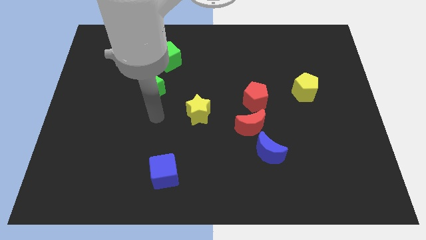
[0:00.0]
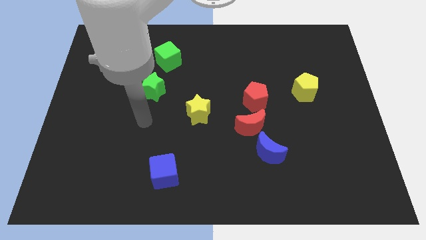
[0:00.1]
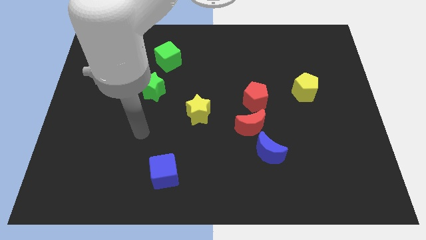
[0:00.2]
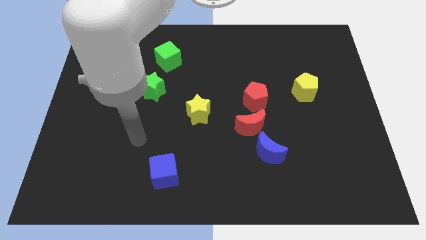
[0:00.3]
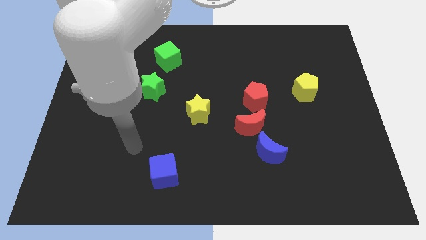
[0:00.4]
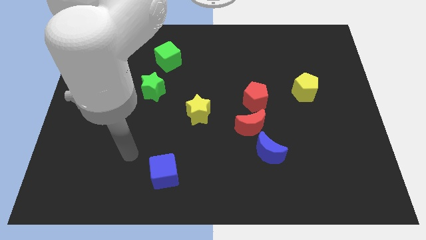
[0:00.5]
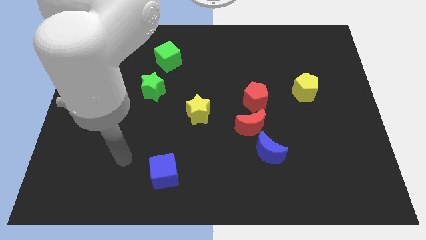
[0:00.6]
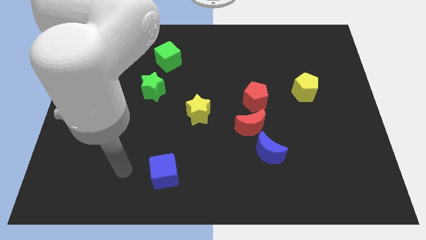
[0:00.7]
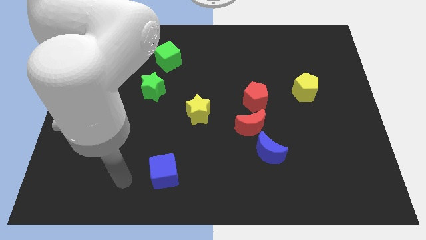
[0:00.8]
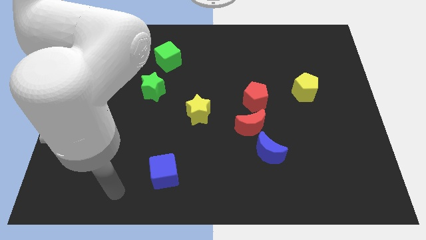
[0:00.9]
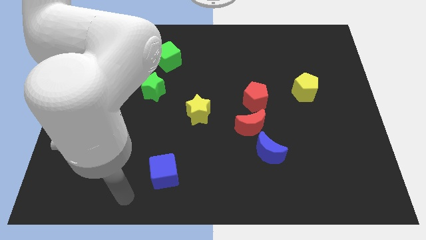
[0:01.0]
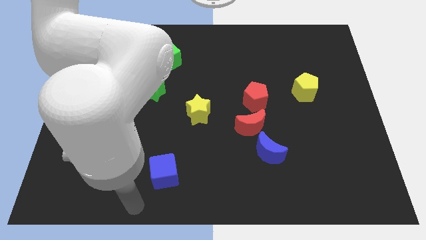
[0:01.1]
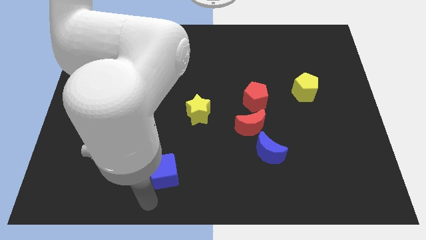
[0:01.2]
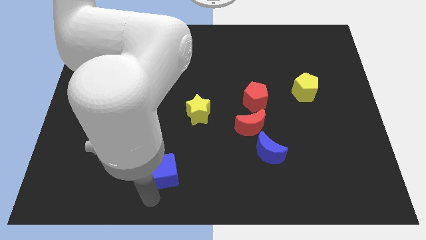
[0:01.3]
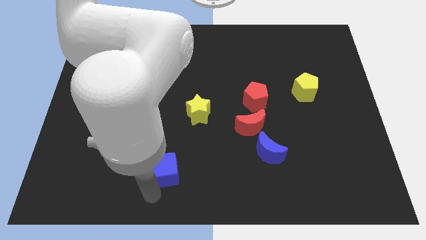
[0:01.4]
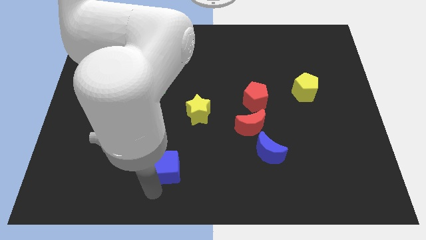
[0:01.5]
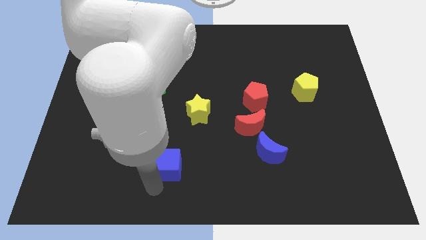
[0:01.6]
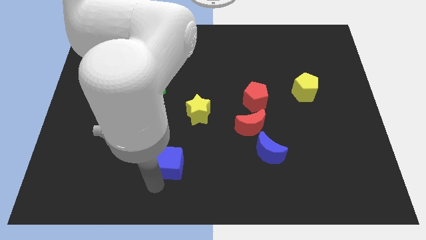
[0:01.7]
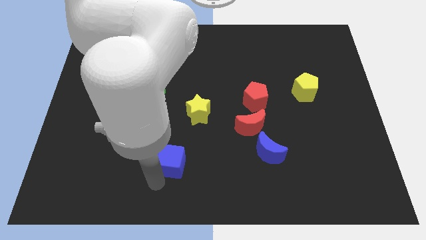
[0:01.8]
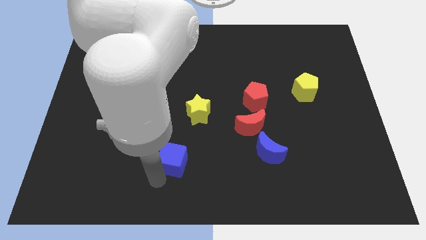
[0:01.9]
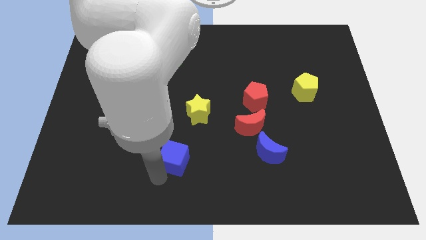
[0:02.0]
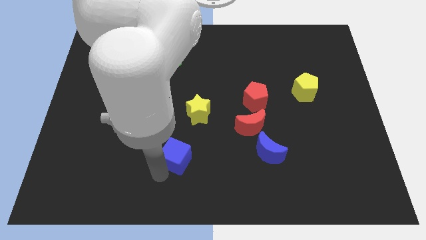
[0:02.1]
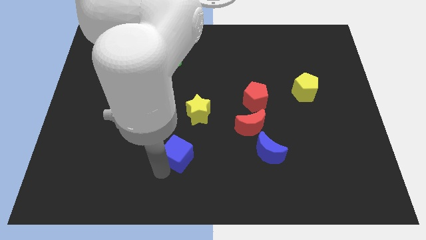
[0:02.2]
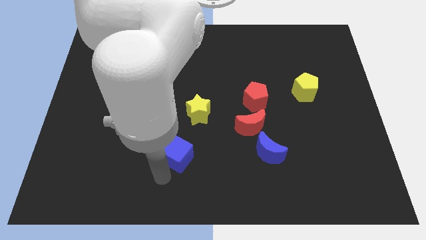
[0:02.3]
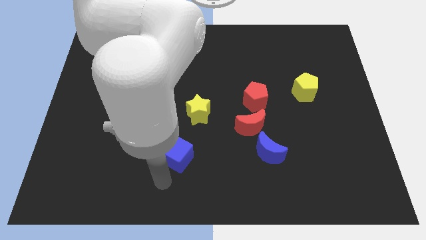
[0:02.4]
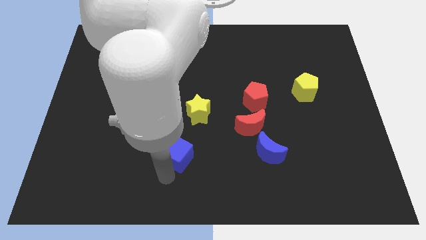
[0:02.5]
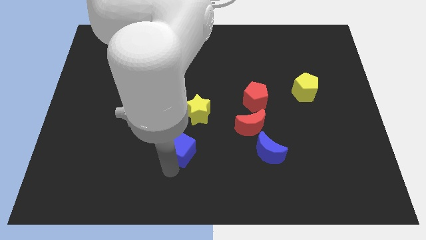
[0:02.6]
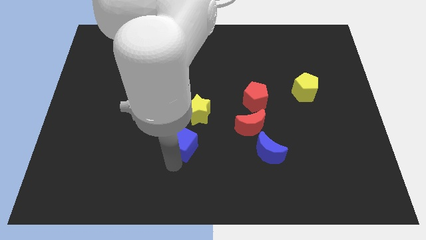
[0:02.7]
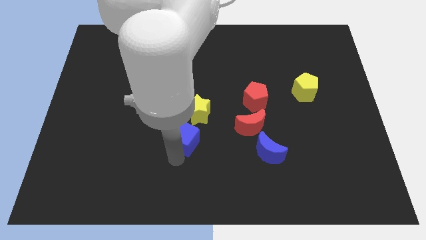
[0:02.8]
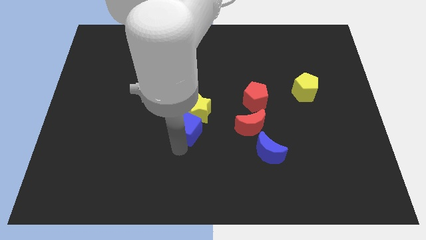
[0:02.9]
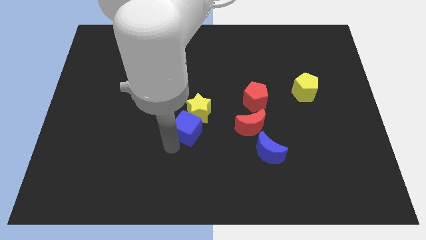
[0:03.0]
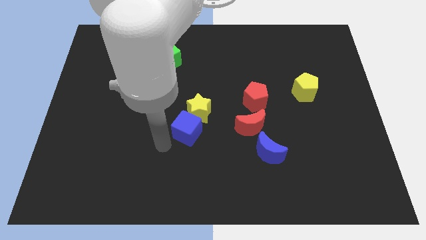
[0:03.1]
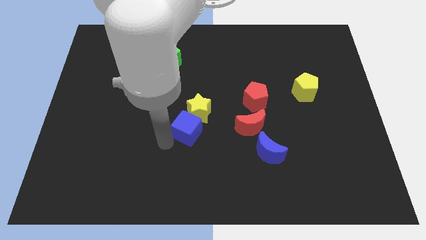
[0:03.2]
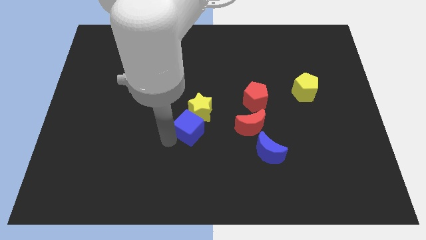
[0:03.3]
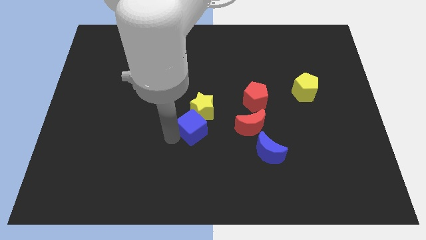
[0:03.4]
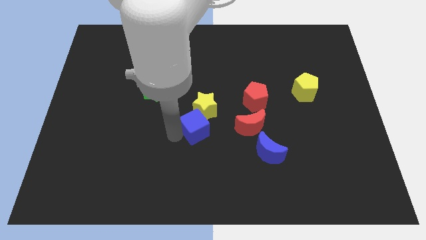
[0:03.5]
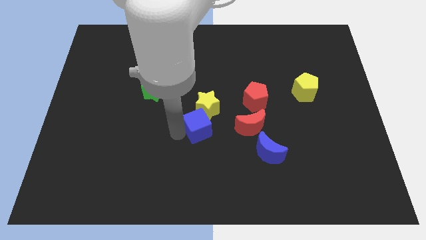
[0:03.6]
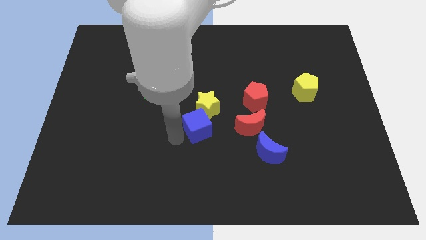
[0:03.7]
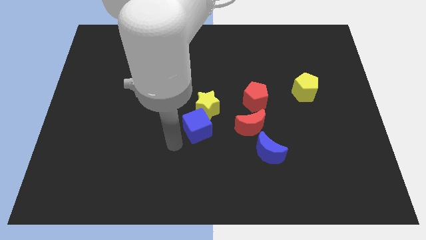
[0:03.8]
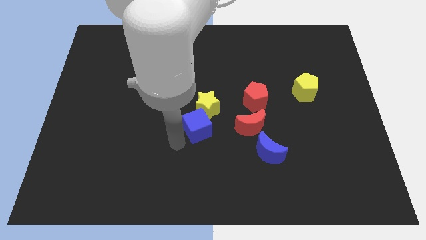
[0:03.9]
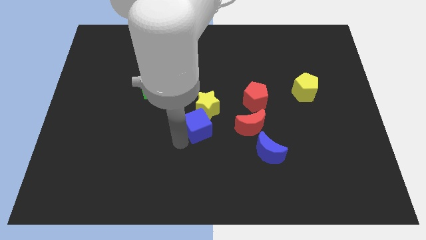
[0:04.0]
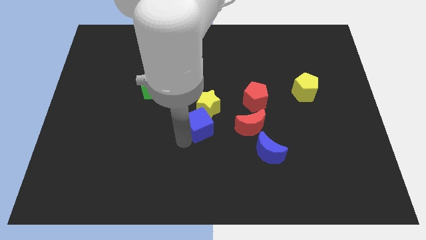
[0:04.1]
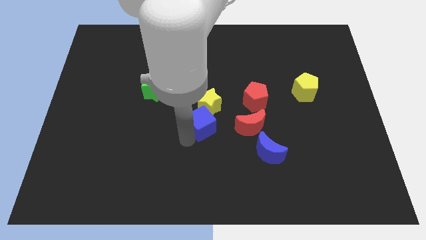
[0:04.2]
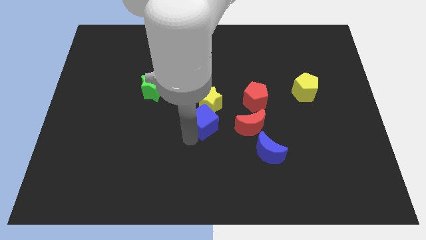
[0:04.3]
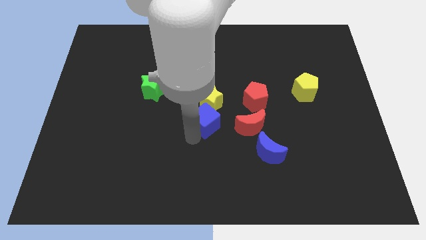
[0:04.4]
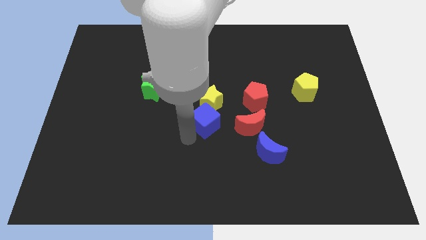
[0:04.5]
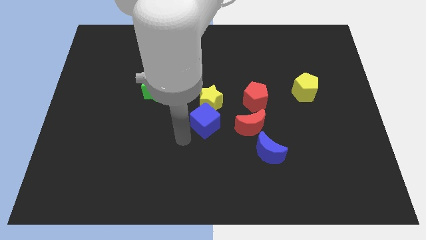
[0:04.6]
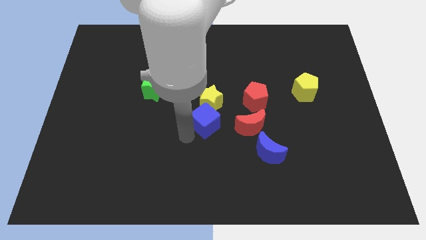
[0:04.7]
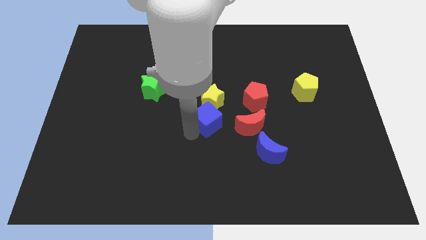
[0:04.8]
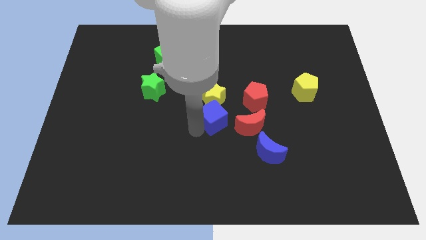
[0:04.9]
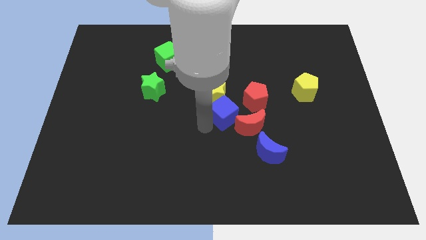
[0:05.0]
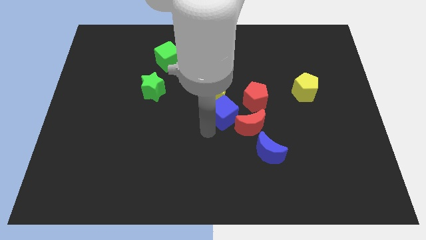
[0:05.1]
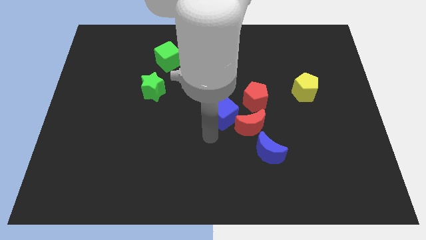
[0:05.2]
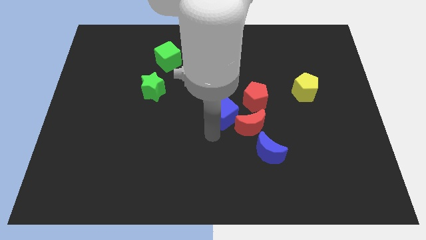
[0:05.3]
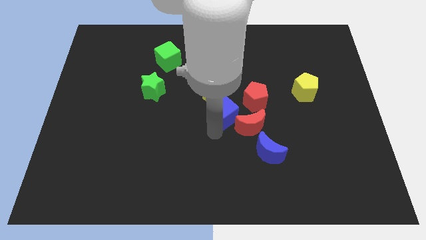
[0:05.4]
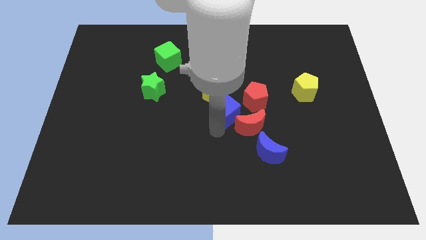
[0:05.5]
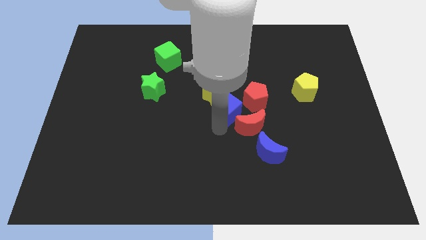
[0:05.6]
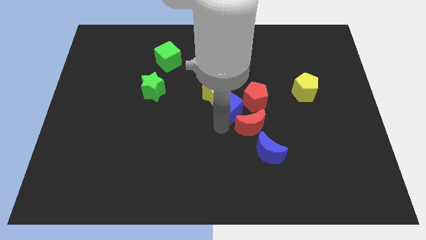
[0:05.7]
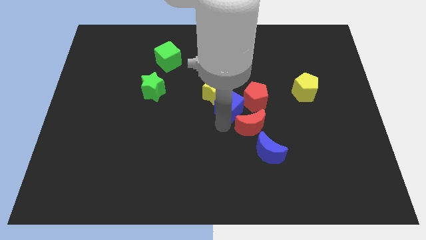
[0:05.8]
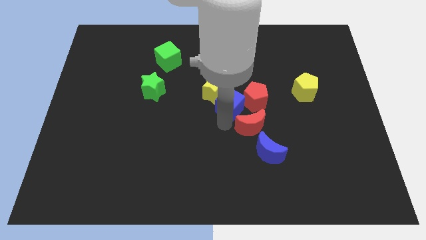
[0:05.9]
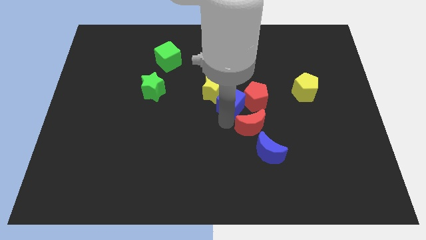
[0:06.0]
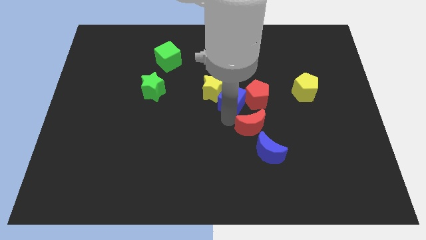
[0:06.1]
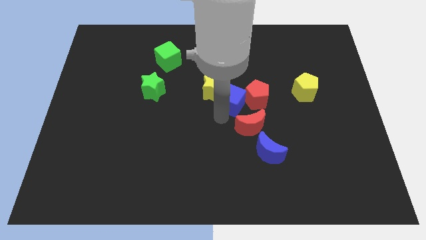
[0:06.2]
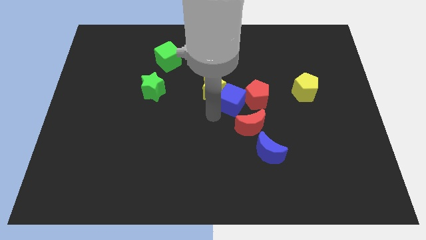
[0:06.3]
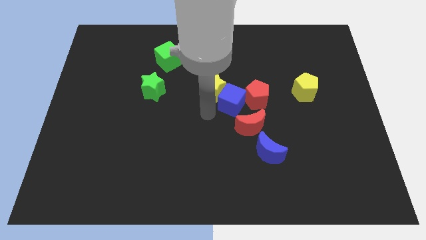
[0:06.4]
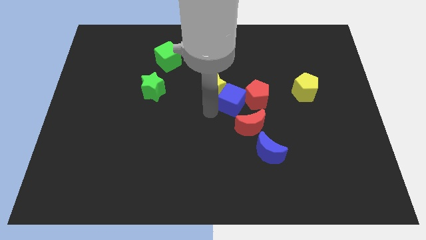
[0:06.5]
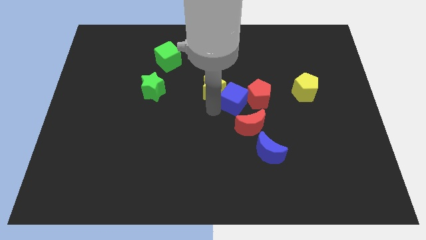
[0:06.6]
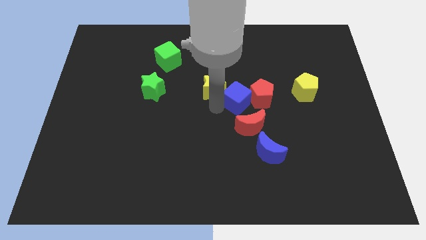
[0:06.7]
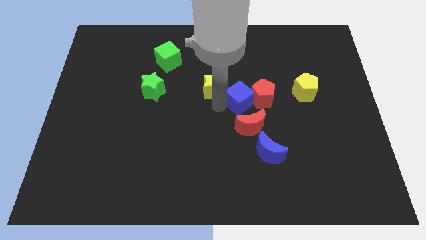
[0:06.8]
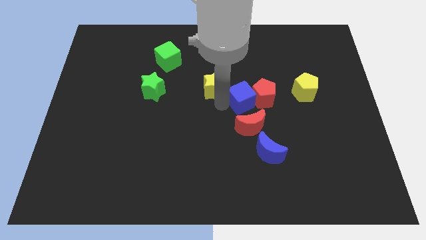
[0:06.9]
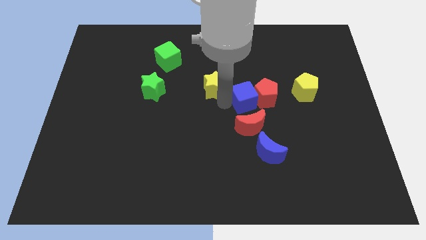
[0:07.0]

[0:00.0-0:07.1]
put the blue cube just left of the yellow pentagon
